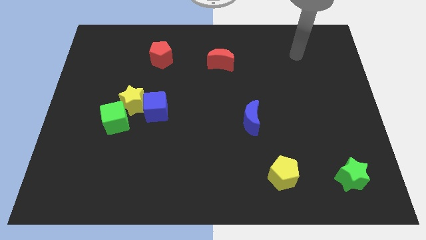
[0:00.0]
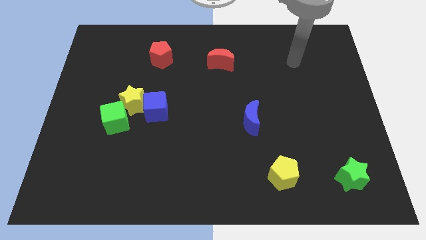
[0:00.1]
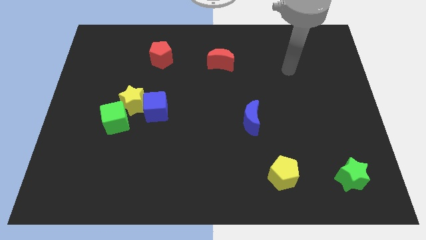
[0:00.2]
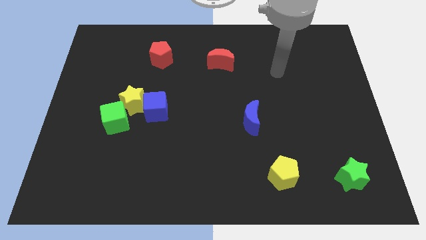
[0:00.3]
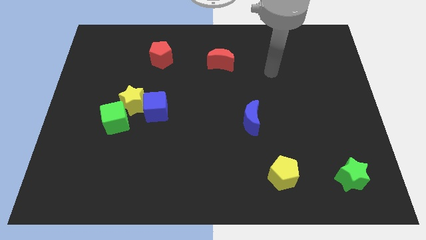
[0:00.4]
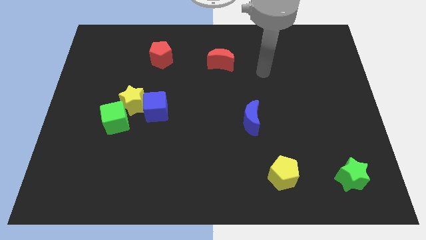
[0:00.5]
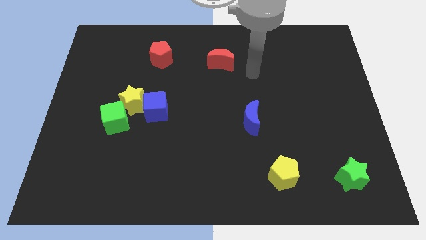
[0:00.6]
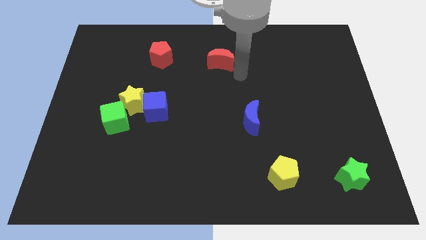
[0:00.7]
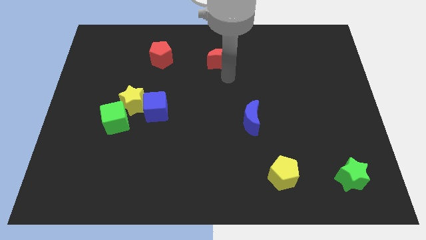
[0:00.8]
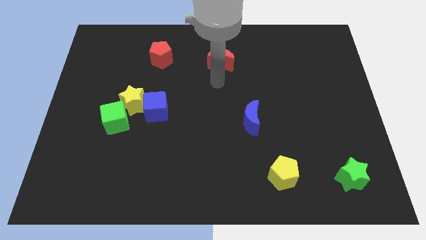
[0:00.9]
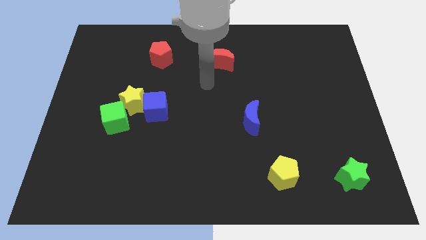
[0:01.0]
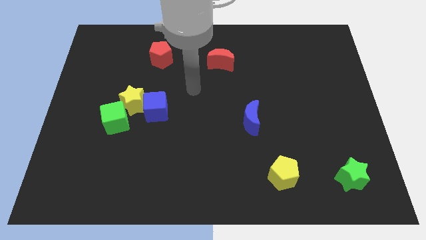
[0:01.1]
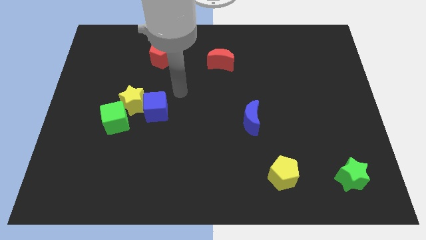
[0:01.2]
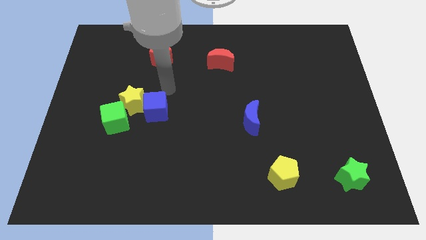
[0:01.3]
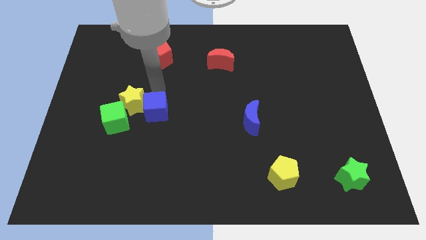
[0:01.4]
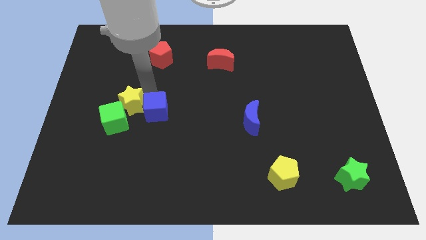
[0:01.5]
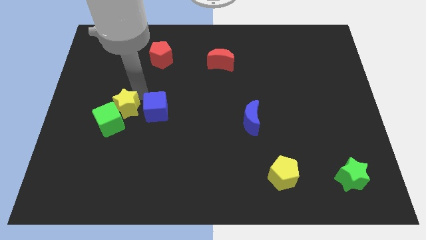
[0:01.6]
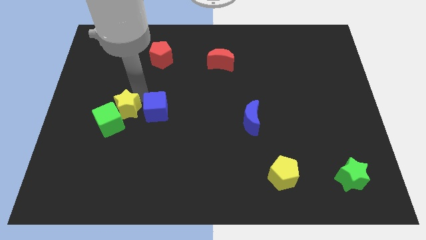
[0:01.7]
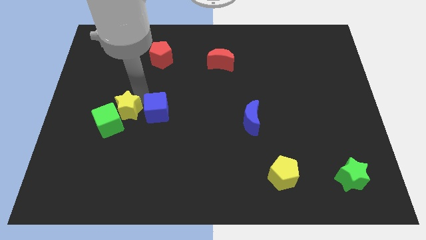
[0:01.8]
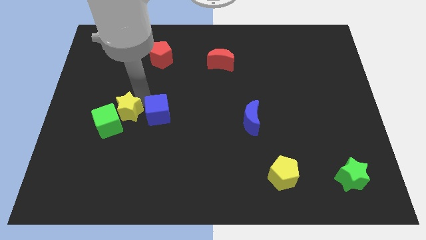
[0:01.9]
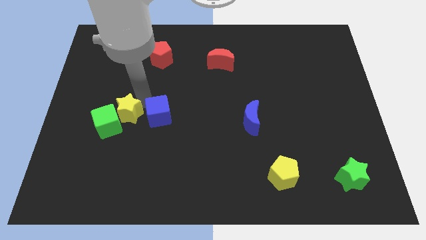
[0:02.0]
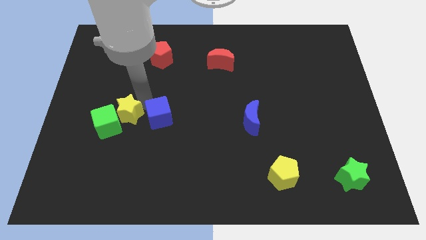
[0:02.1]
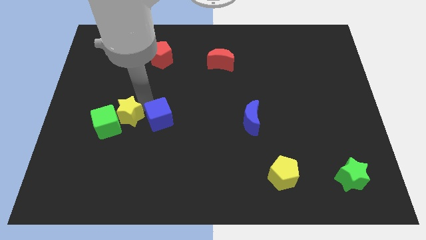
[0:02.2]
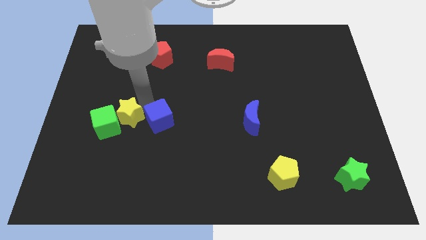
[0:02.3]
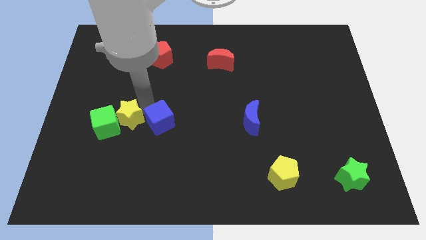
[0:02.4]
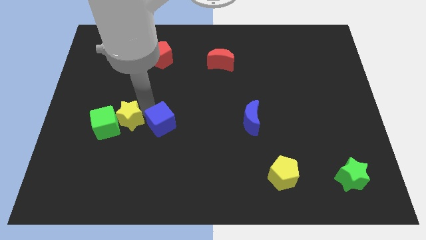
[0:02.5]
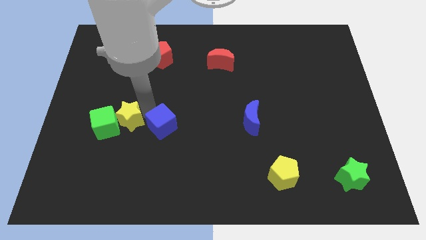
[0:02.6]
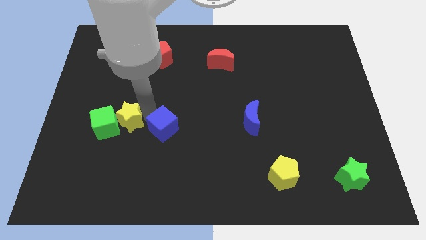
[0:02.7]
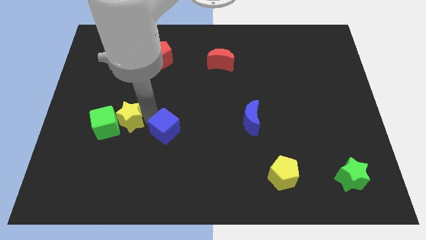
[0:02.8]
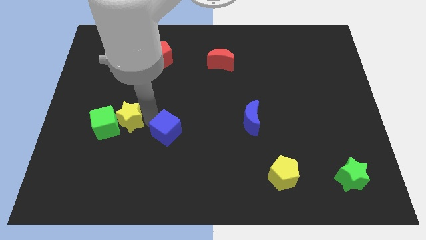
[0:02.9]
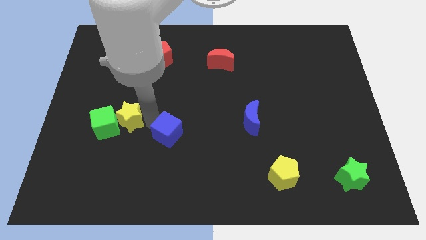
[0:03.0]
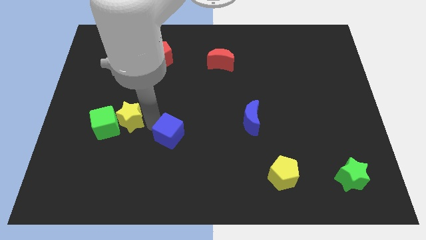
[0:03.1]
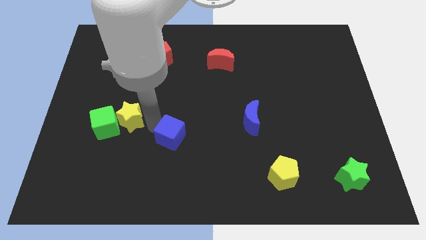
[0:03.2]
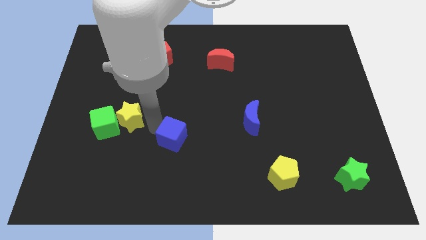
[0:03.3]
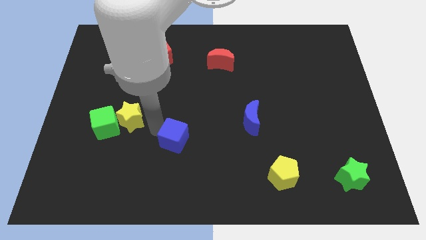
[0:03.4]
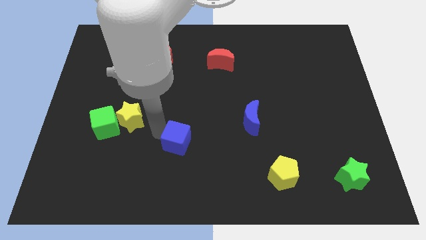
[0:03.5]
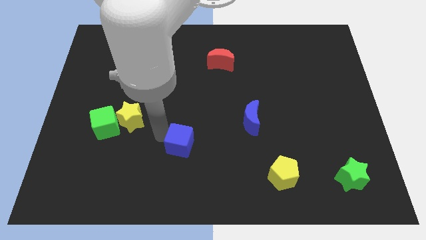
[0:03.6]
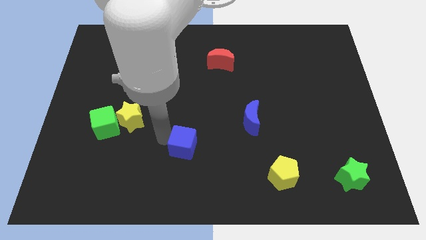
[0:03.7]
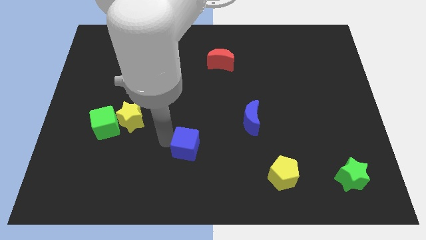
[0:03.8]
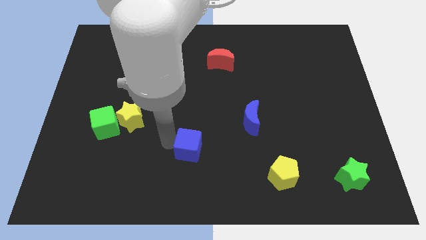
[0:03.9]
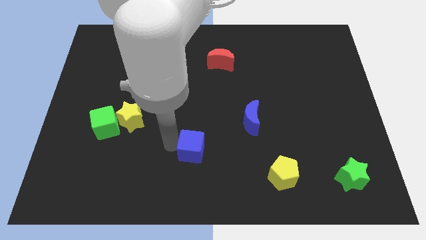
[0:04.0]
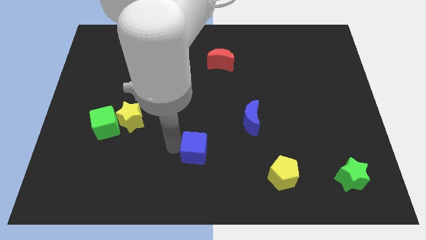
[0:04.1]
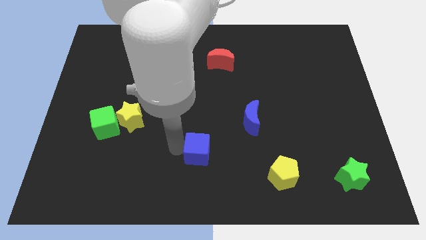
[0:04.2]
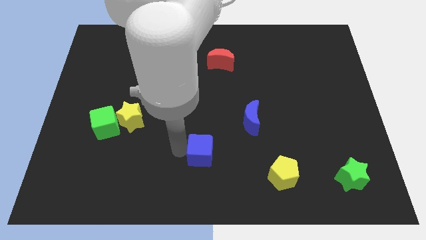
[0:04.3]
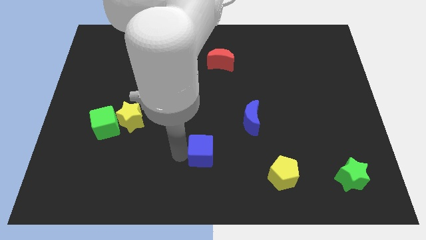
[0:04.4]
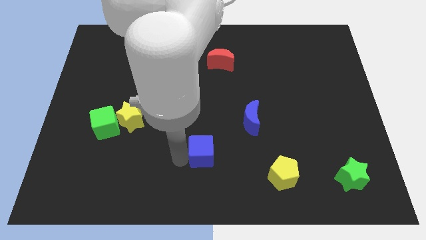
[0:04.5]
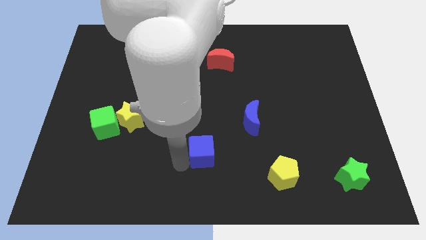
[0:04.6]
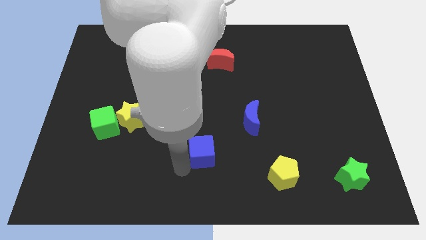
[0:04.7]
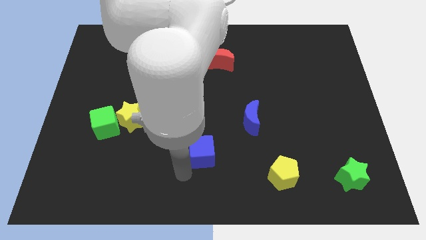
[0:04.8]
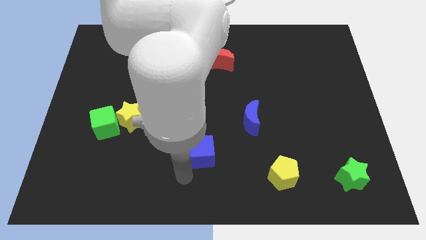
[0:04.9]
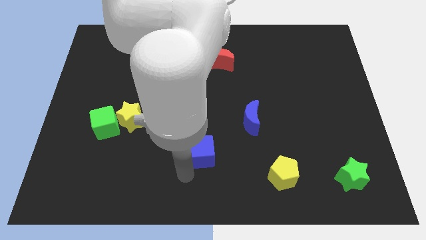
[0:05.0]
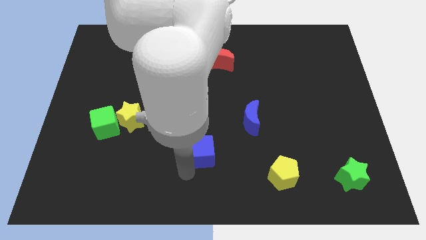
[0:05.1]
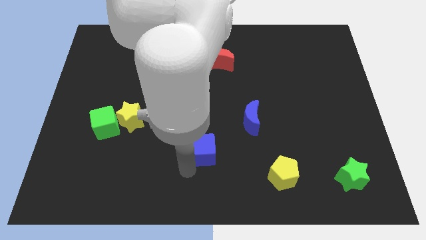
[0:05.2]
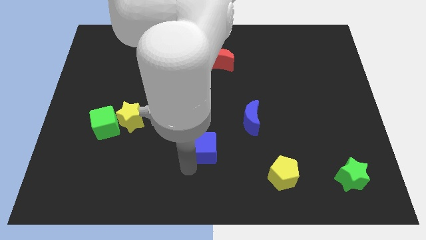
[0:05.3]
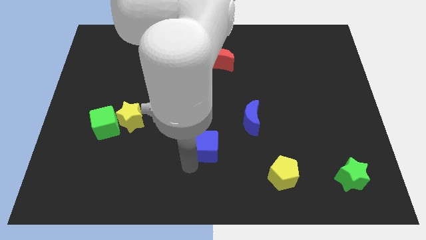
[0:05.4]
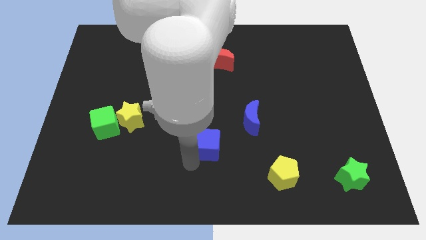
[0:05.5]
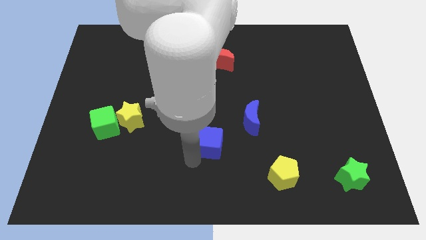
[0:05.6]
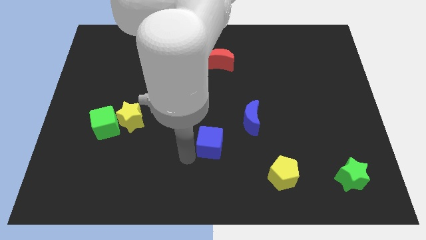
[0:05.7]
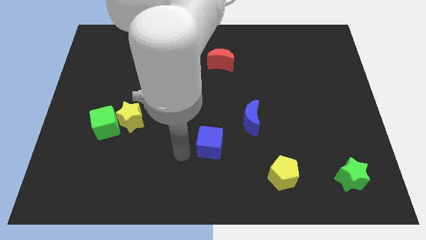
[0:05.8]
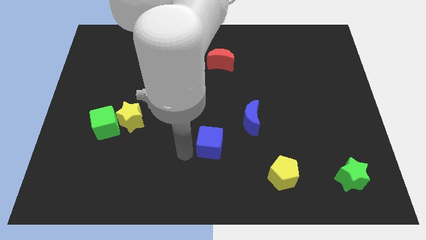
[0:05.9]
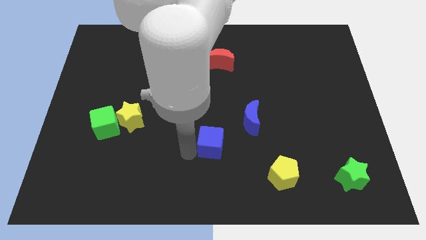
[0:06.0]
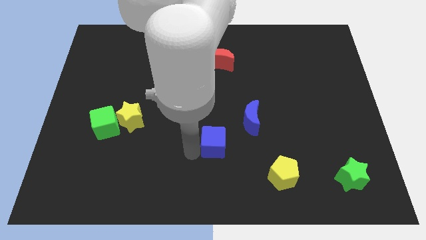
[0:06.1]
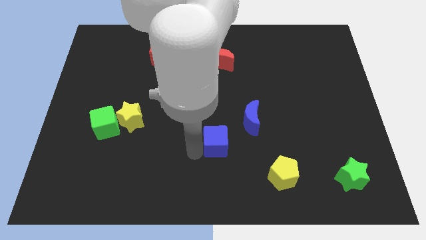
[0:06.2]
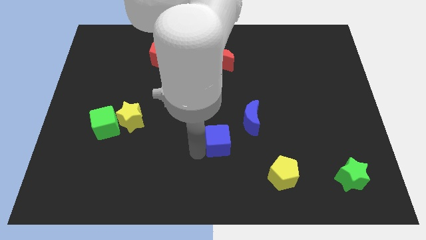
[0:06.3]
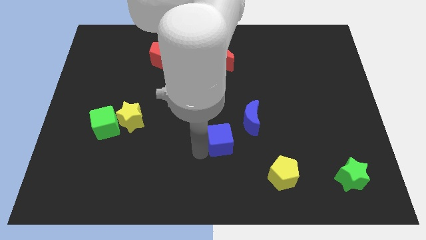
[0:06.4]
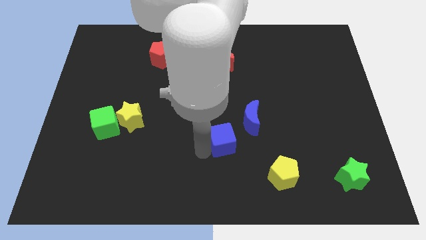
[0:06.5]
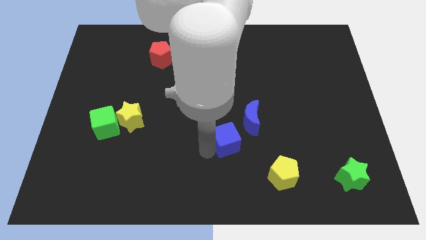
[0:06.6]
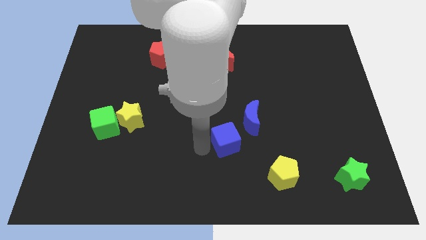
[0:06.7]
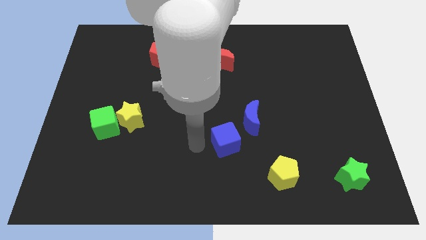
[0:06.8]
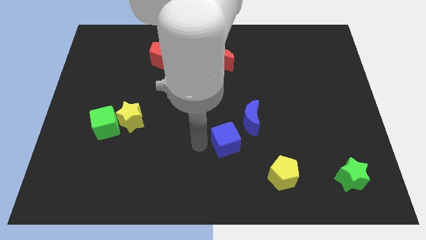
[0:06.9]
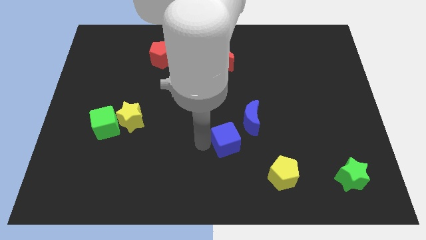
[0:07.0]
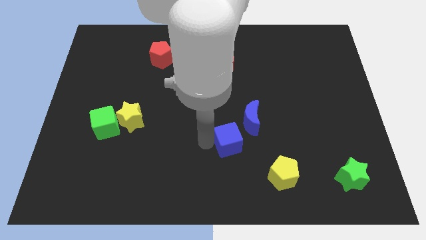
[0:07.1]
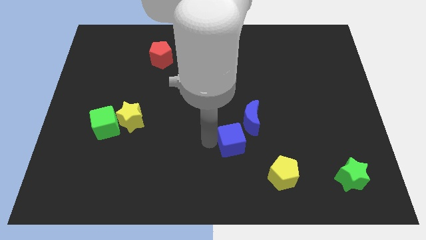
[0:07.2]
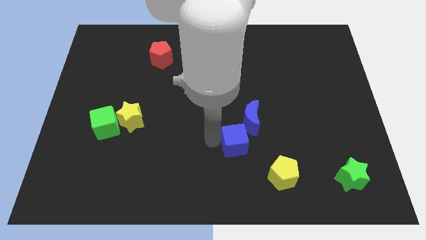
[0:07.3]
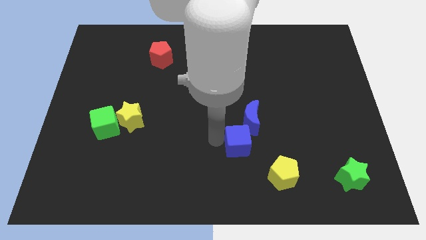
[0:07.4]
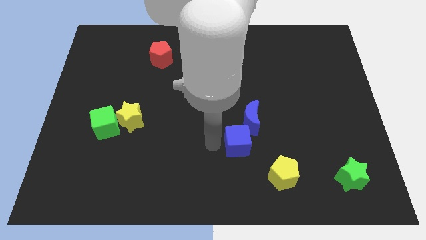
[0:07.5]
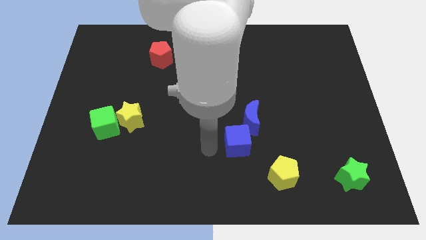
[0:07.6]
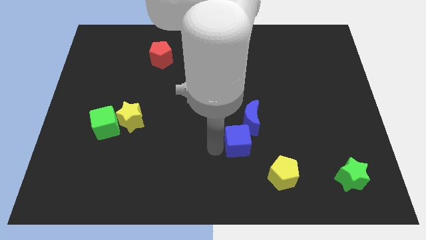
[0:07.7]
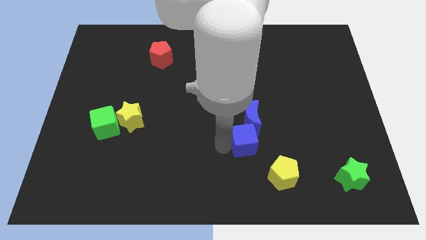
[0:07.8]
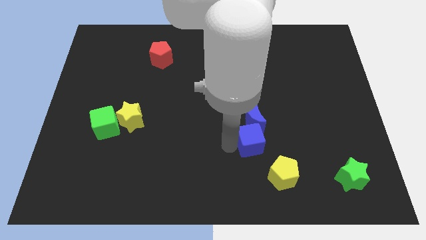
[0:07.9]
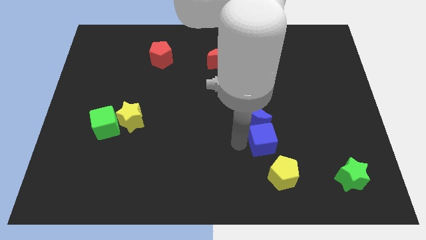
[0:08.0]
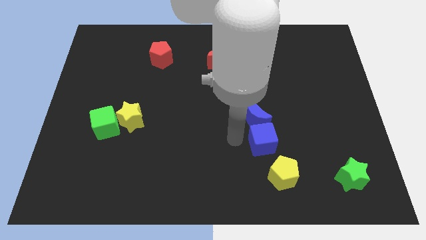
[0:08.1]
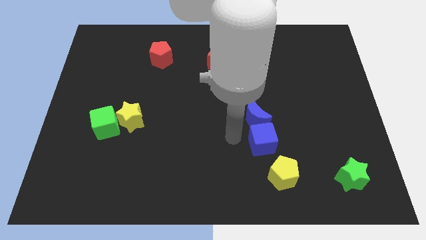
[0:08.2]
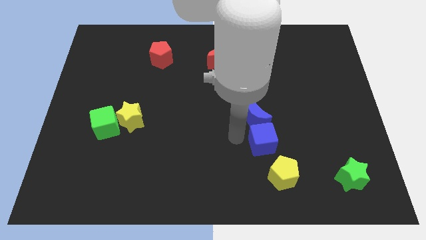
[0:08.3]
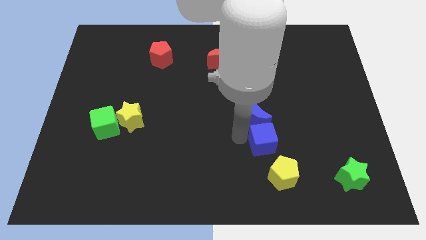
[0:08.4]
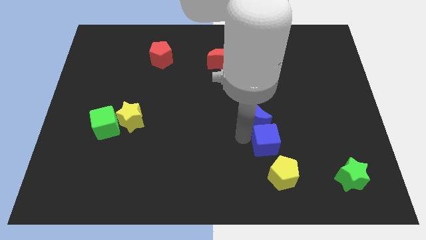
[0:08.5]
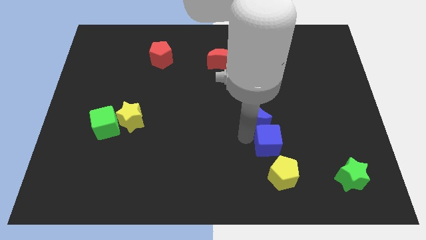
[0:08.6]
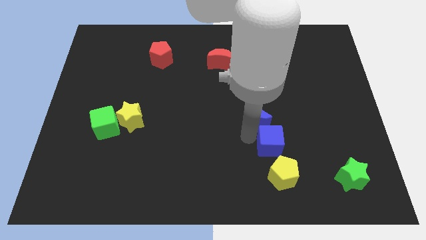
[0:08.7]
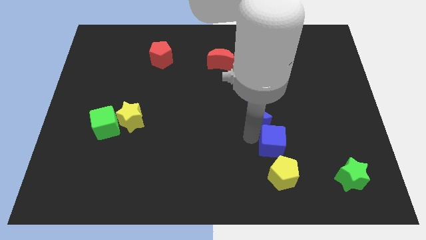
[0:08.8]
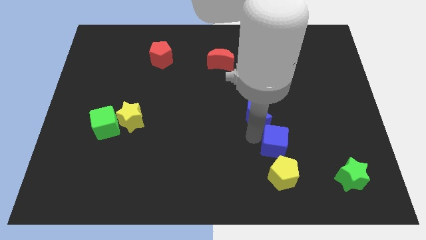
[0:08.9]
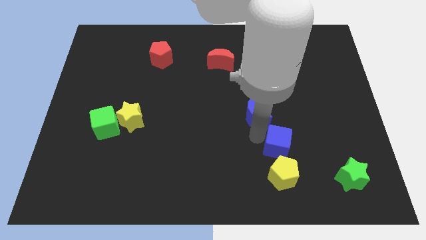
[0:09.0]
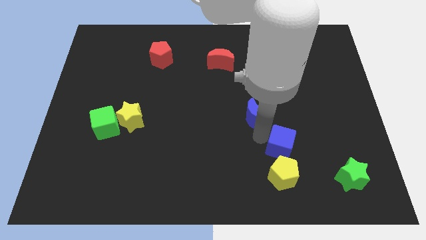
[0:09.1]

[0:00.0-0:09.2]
push the blue cube diagonally up and to the right of the yellow pentagon
